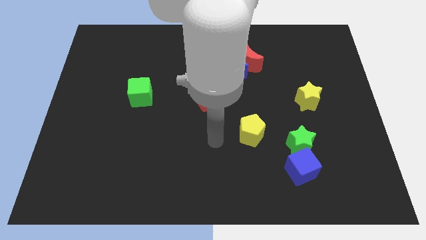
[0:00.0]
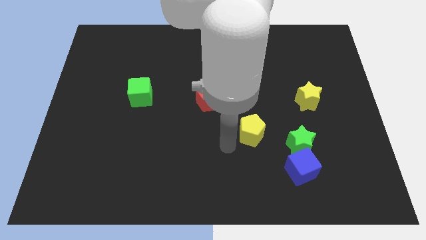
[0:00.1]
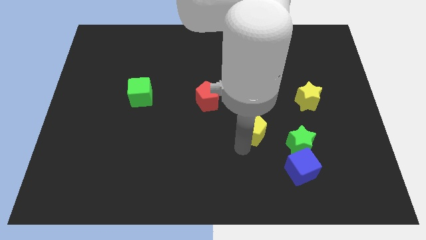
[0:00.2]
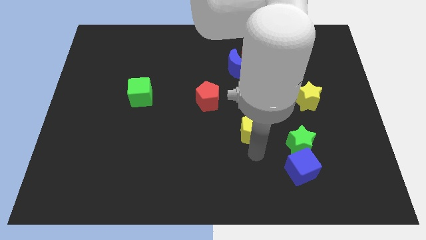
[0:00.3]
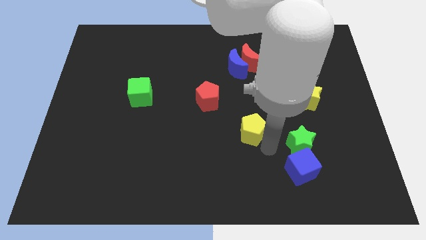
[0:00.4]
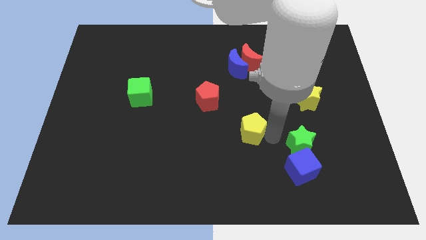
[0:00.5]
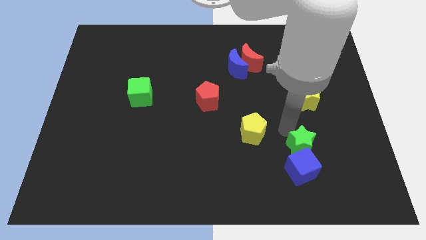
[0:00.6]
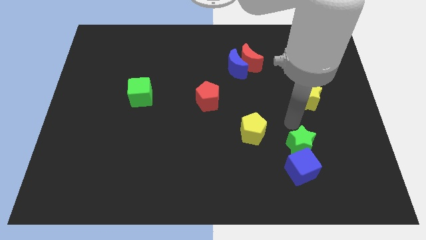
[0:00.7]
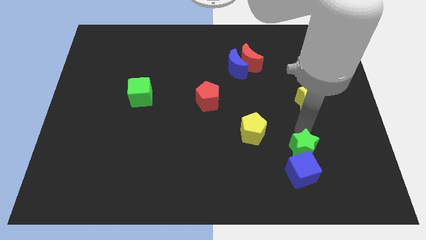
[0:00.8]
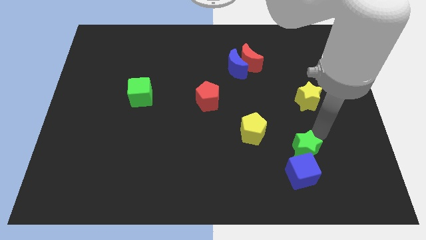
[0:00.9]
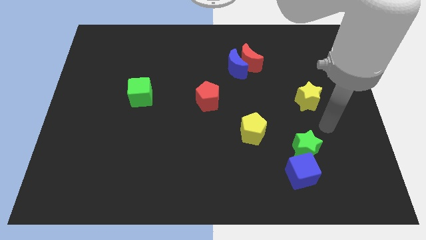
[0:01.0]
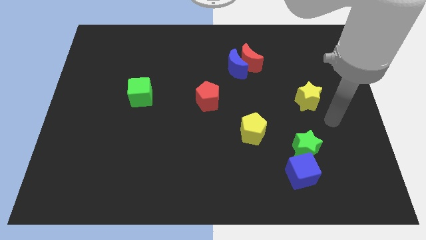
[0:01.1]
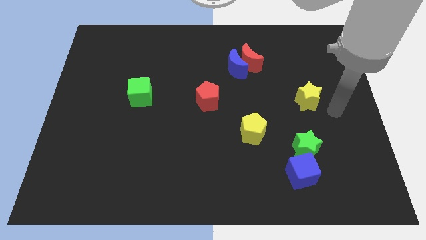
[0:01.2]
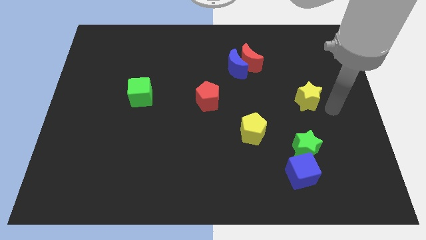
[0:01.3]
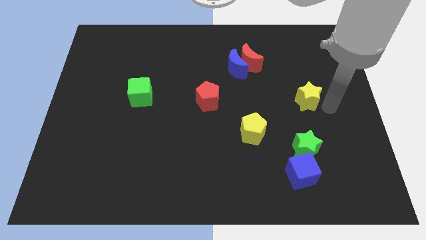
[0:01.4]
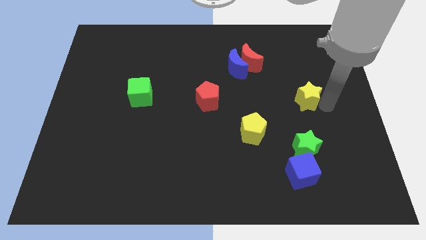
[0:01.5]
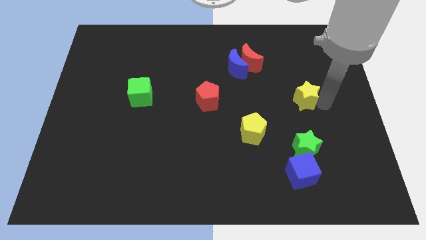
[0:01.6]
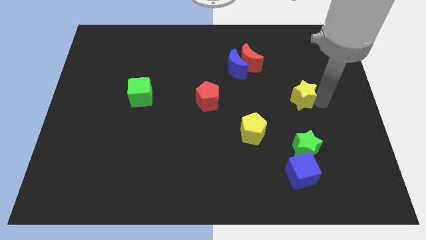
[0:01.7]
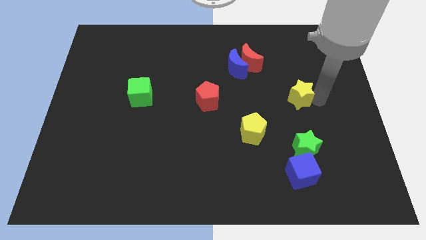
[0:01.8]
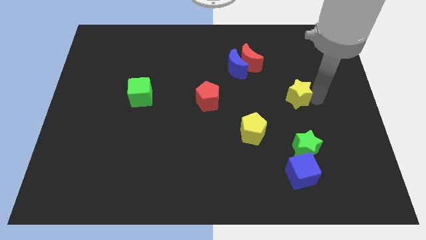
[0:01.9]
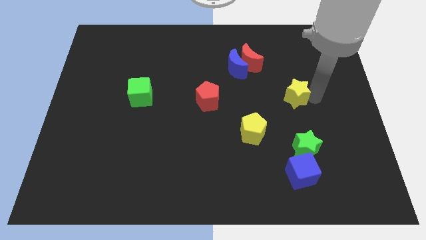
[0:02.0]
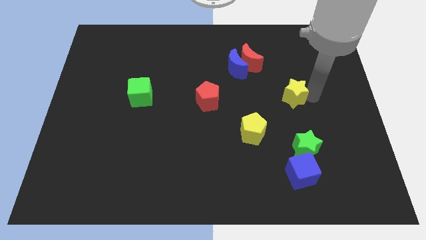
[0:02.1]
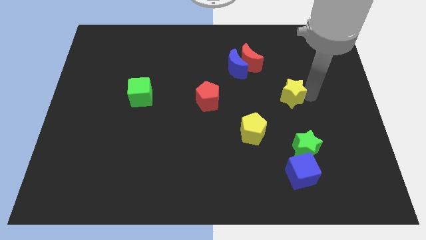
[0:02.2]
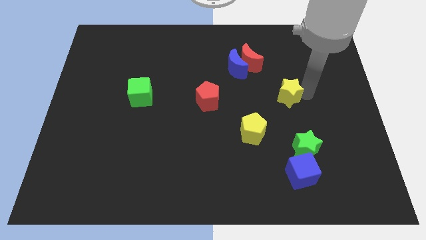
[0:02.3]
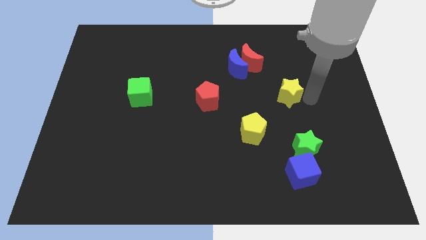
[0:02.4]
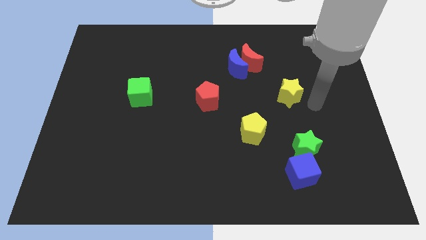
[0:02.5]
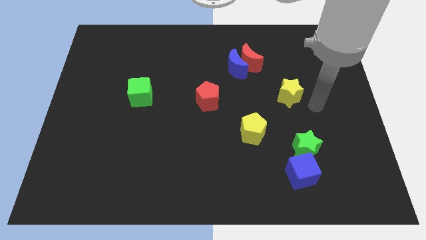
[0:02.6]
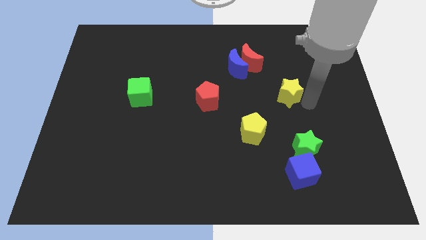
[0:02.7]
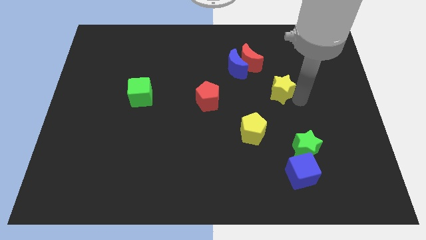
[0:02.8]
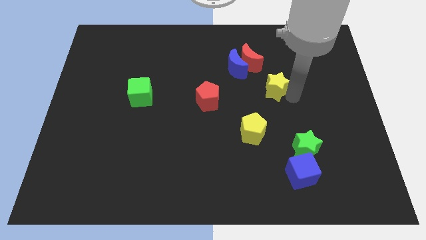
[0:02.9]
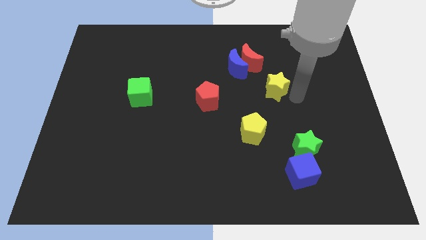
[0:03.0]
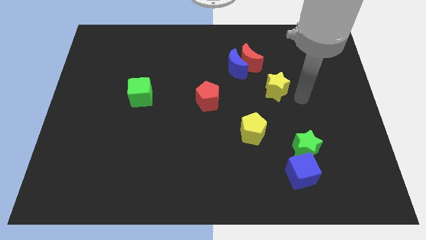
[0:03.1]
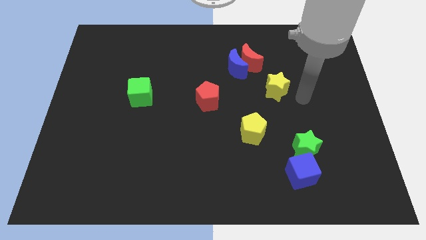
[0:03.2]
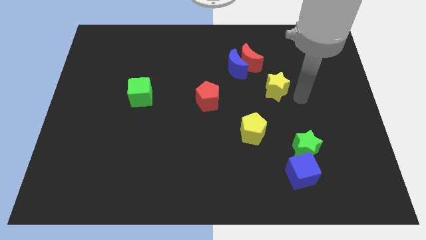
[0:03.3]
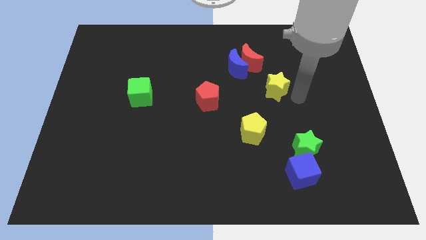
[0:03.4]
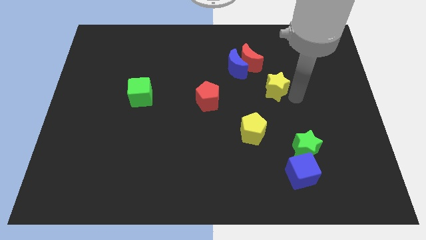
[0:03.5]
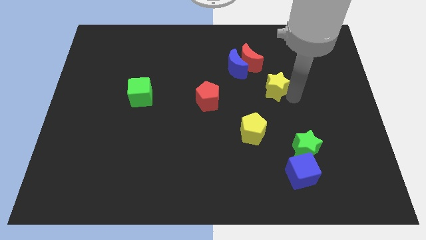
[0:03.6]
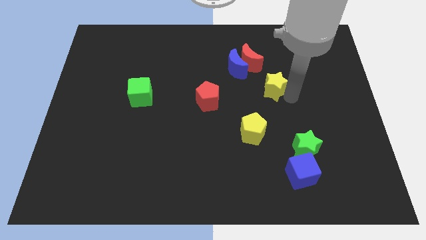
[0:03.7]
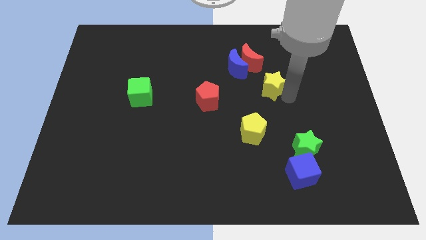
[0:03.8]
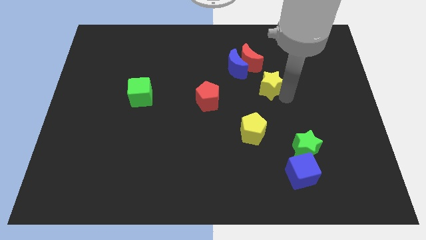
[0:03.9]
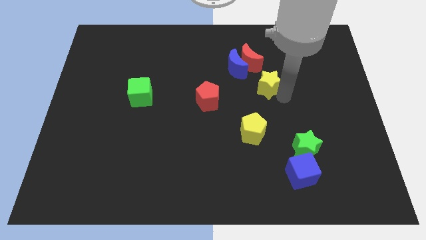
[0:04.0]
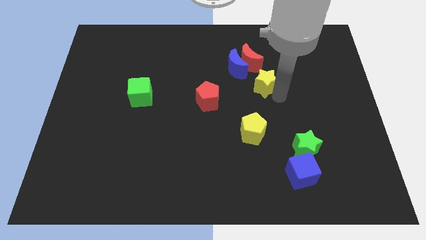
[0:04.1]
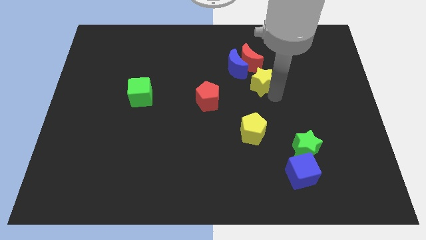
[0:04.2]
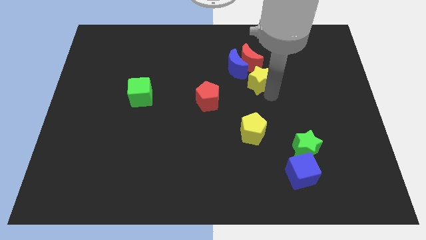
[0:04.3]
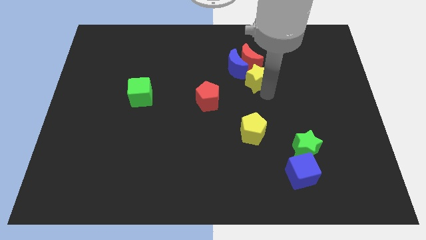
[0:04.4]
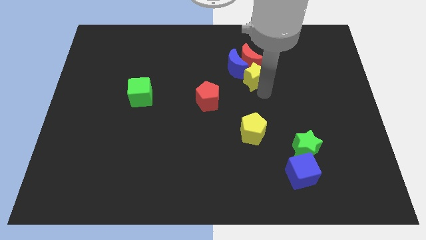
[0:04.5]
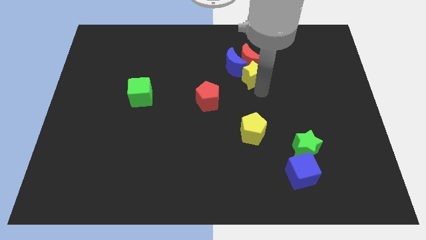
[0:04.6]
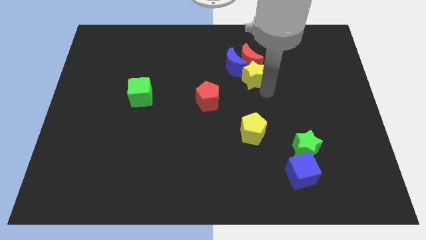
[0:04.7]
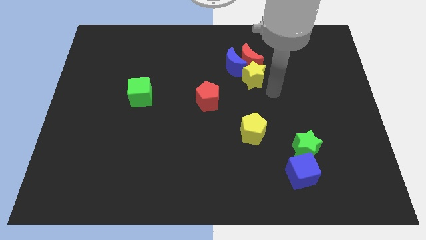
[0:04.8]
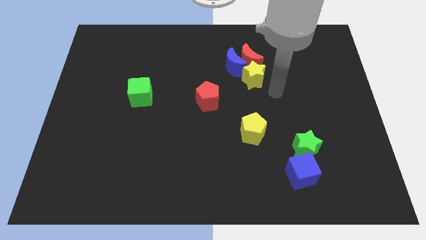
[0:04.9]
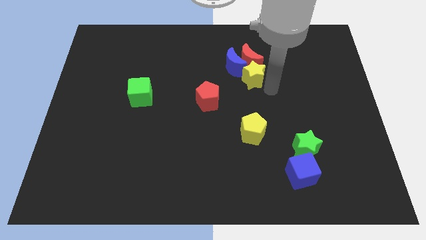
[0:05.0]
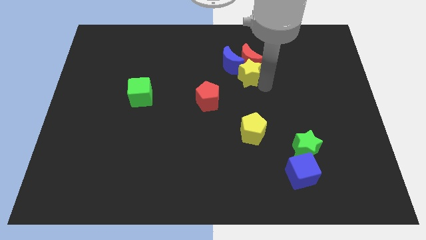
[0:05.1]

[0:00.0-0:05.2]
put the yellow star to the blue moon

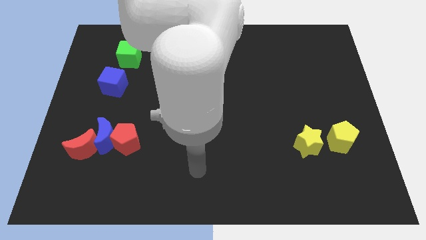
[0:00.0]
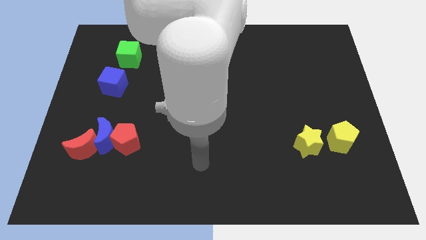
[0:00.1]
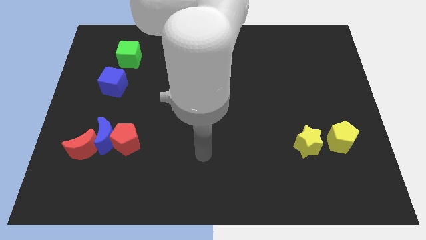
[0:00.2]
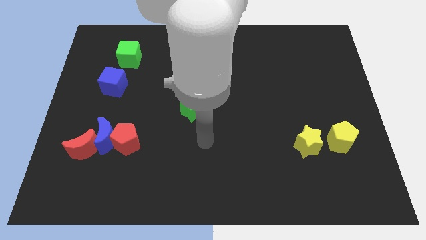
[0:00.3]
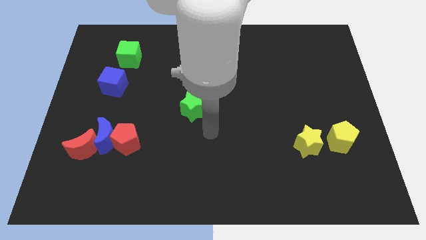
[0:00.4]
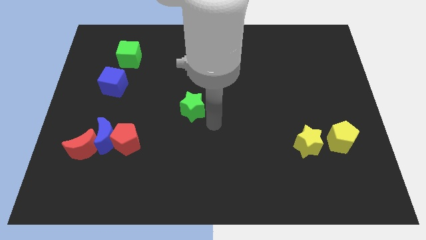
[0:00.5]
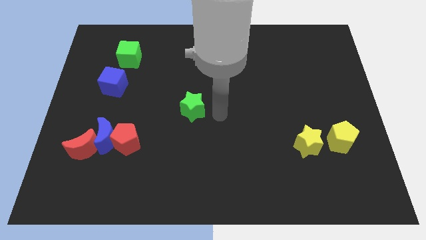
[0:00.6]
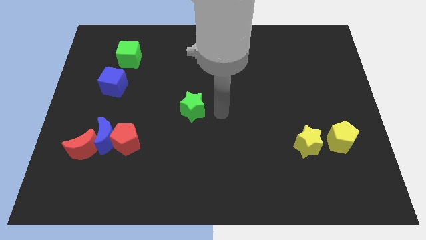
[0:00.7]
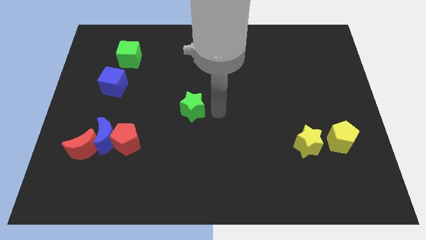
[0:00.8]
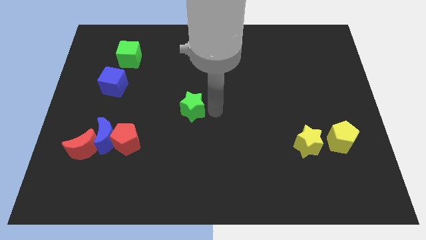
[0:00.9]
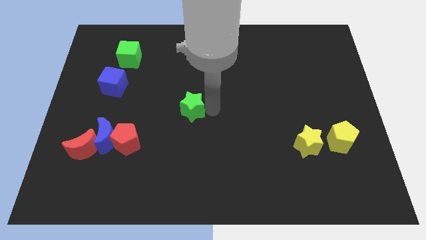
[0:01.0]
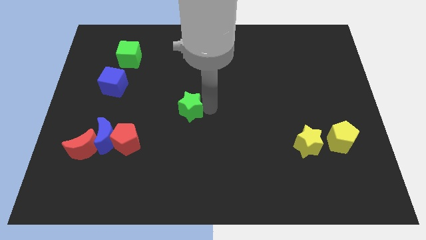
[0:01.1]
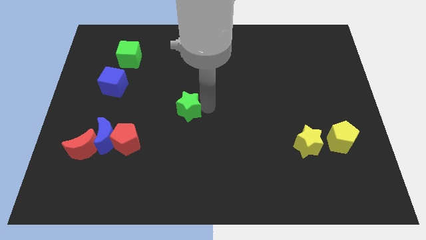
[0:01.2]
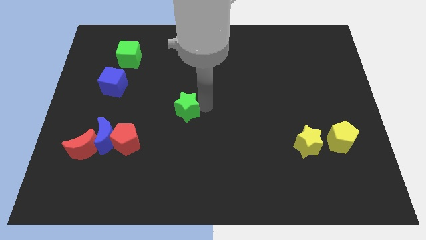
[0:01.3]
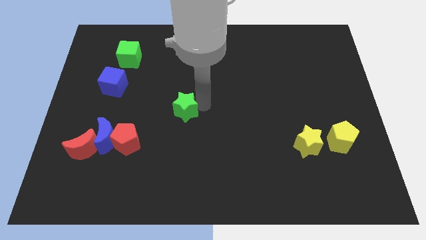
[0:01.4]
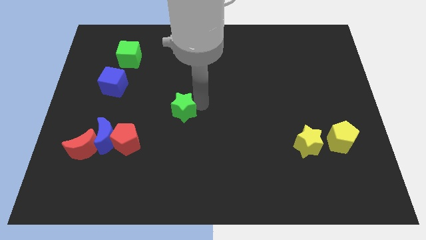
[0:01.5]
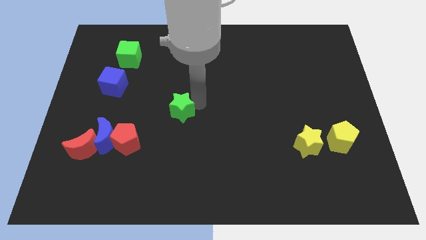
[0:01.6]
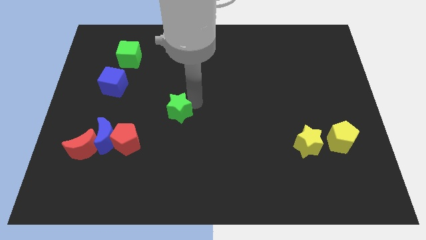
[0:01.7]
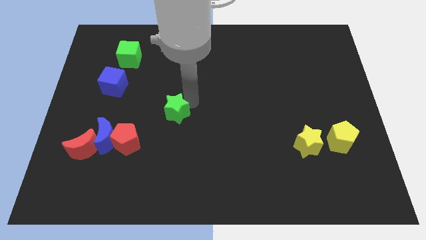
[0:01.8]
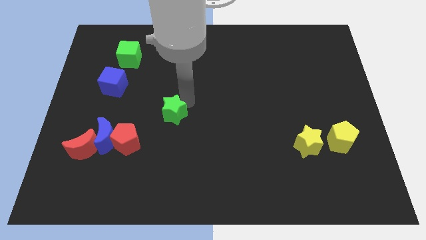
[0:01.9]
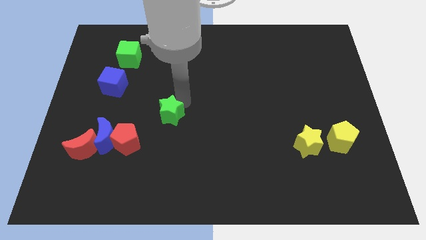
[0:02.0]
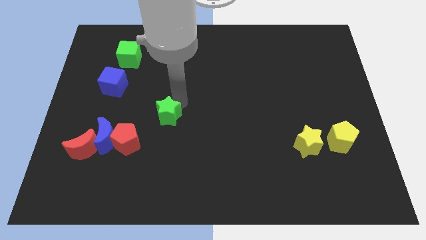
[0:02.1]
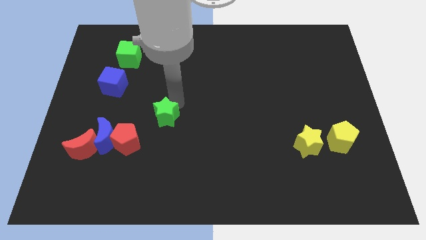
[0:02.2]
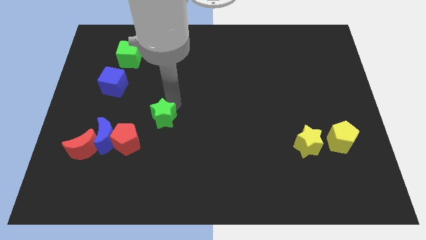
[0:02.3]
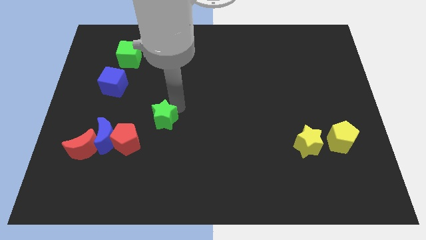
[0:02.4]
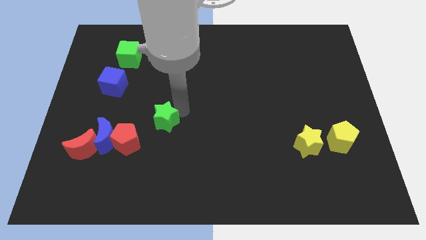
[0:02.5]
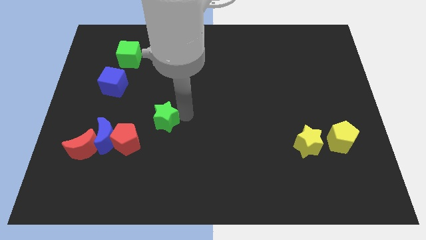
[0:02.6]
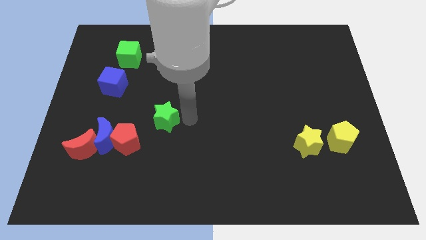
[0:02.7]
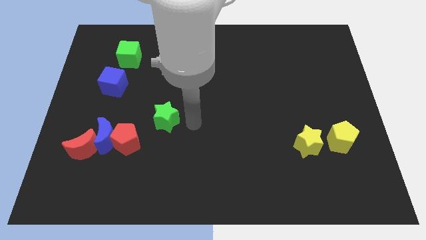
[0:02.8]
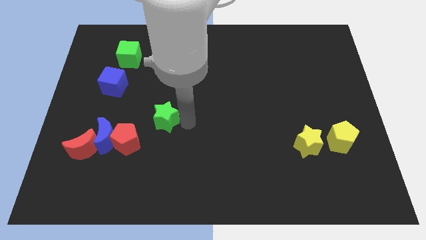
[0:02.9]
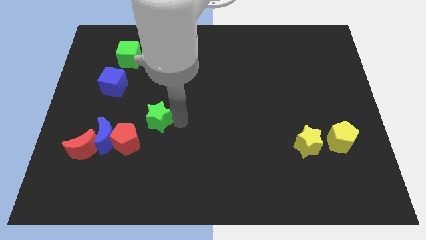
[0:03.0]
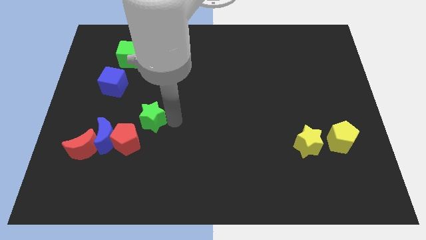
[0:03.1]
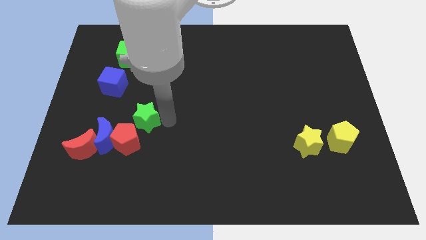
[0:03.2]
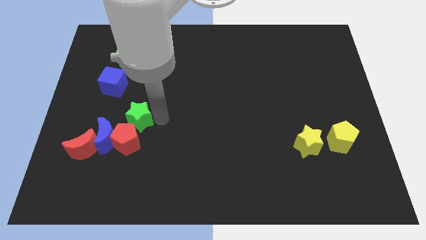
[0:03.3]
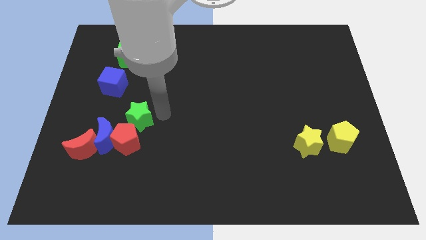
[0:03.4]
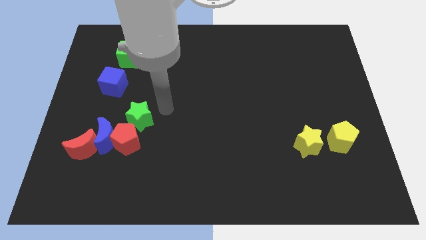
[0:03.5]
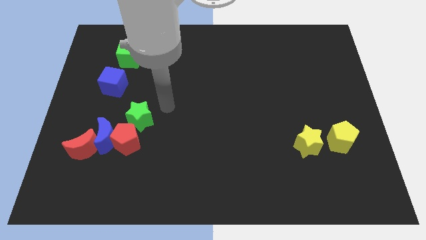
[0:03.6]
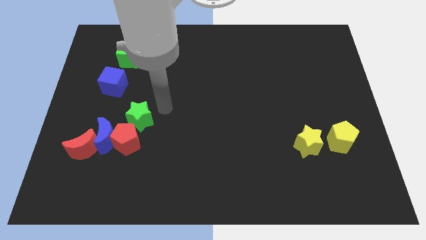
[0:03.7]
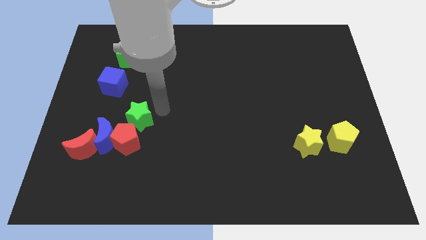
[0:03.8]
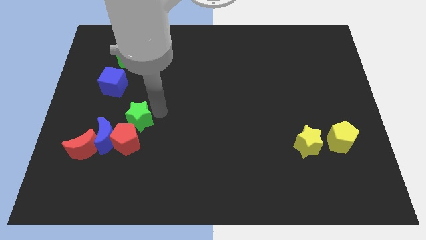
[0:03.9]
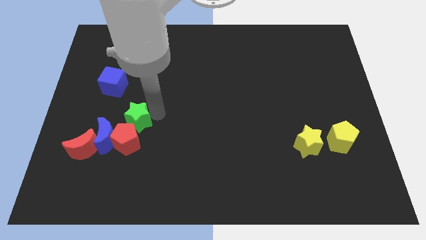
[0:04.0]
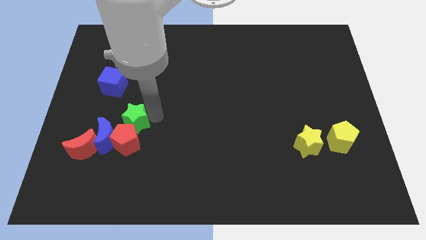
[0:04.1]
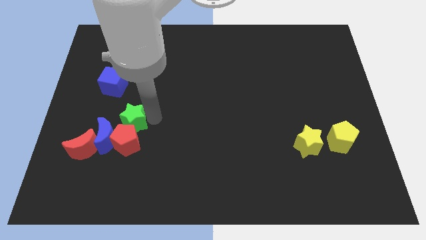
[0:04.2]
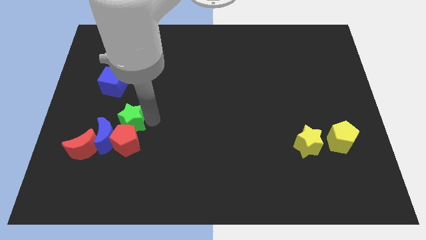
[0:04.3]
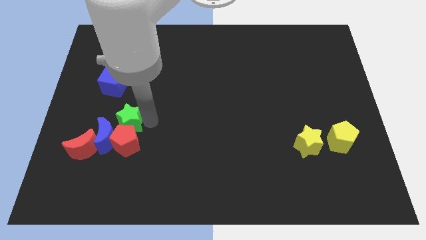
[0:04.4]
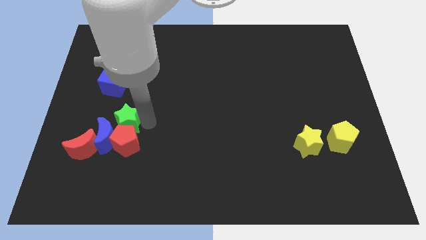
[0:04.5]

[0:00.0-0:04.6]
push the green star to the blue moon
